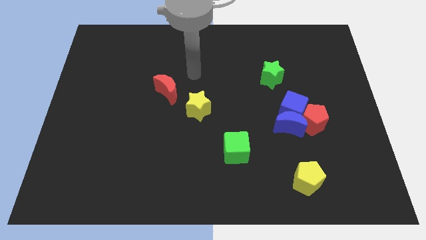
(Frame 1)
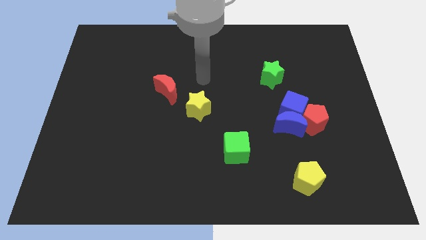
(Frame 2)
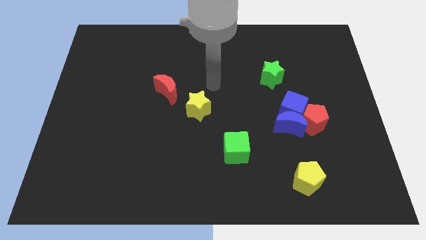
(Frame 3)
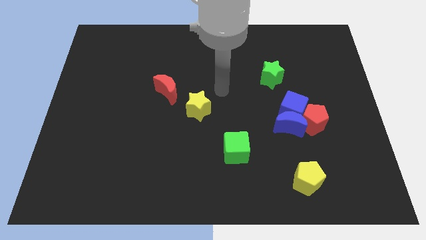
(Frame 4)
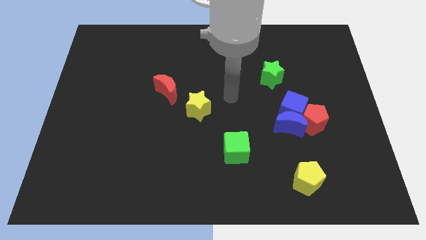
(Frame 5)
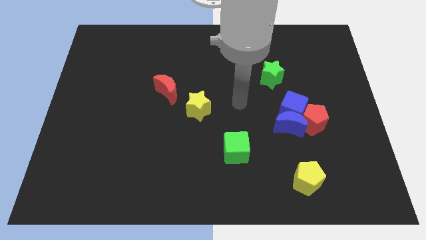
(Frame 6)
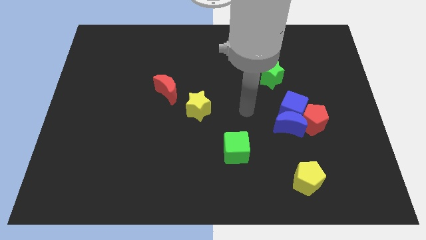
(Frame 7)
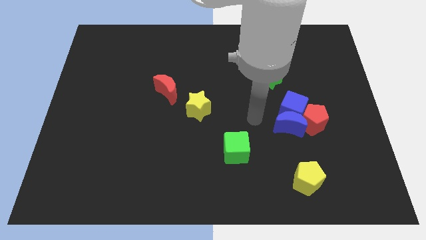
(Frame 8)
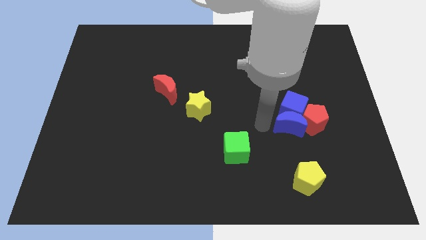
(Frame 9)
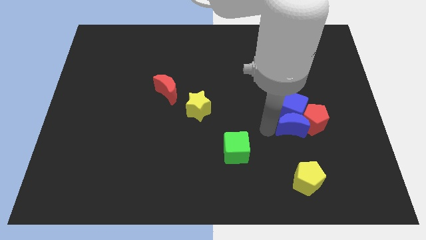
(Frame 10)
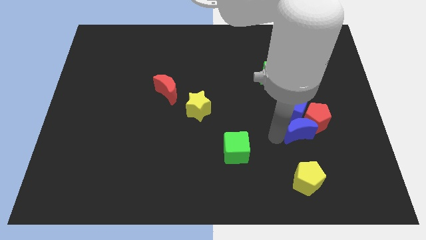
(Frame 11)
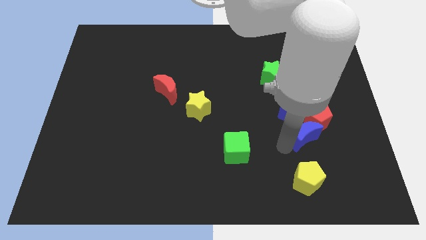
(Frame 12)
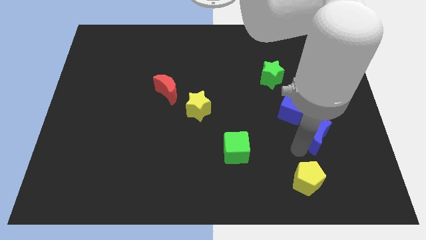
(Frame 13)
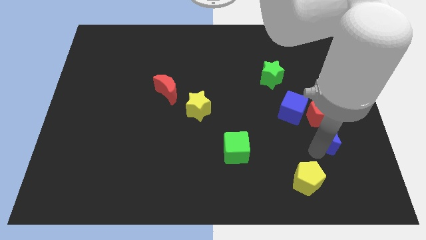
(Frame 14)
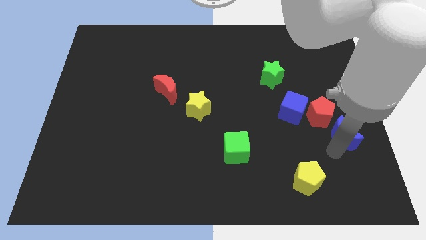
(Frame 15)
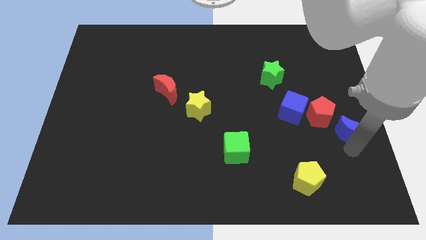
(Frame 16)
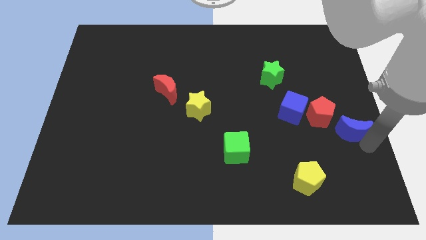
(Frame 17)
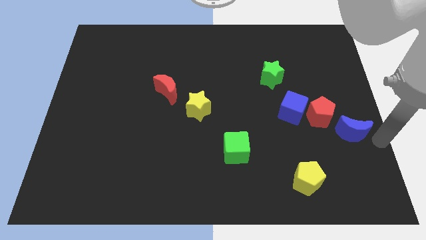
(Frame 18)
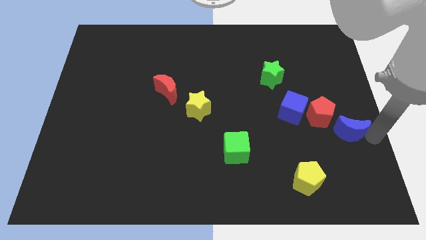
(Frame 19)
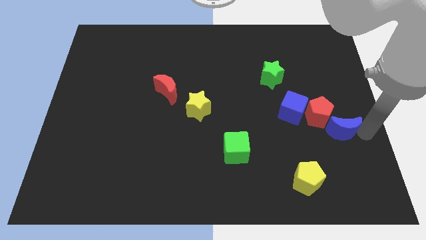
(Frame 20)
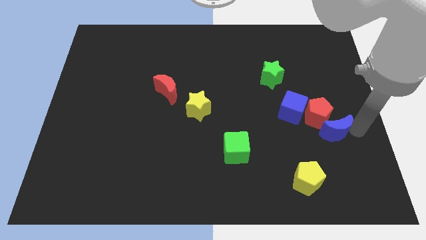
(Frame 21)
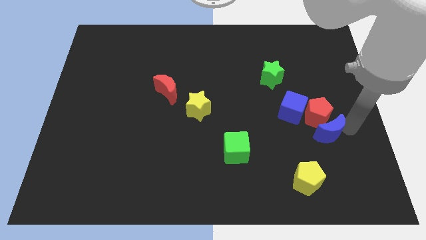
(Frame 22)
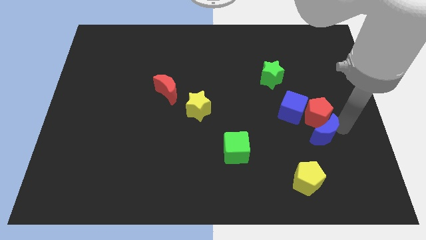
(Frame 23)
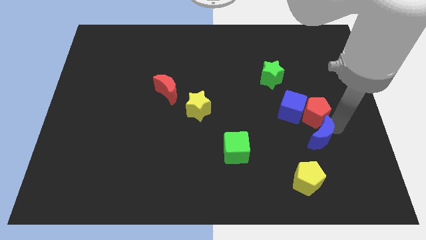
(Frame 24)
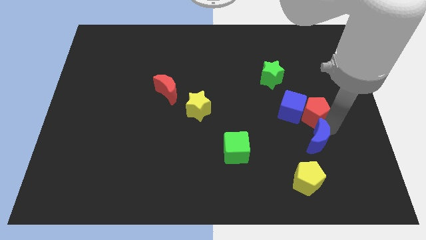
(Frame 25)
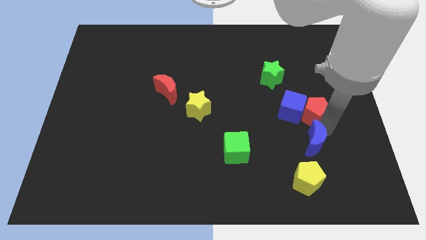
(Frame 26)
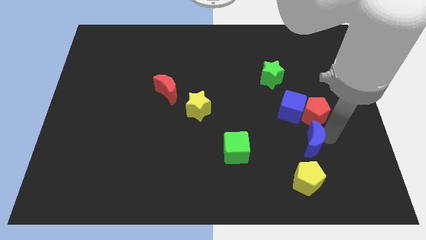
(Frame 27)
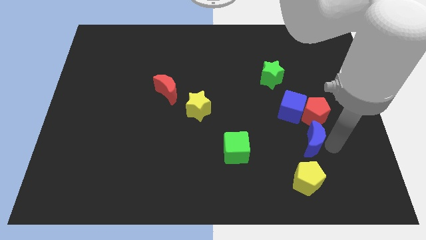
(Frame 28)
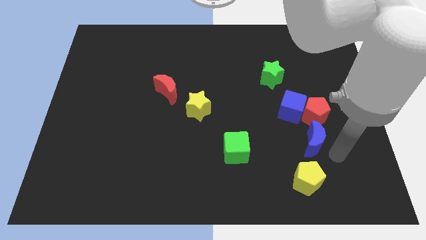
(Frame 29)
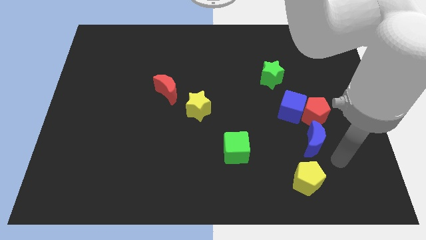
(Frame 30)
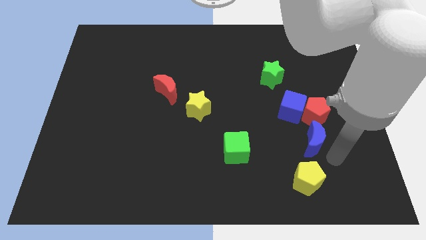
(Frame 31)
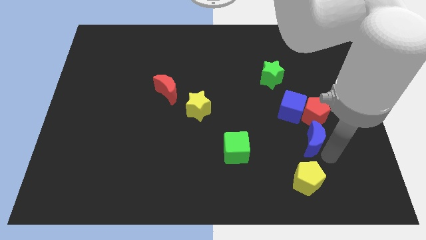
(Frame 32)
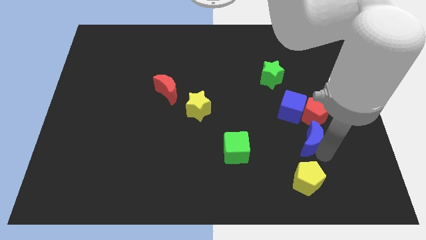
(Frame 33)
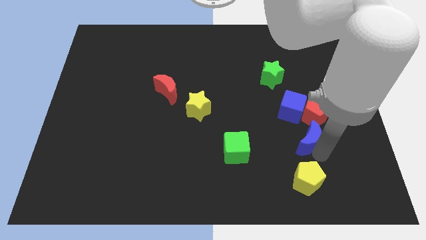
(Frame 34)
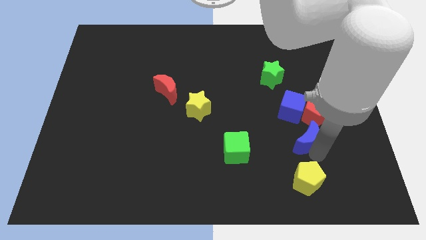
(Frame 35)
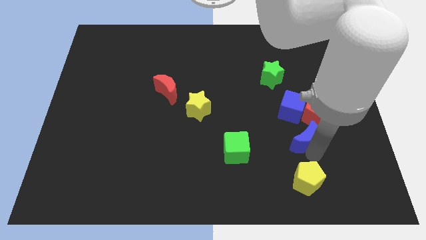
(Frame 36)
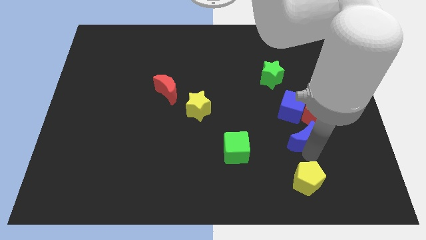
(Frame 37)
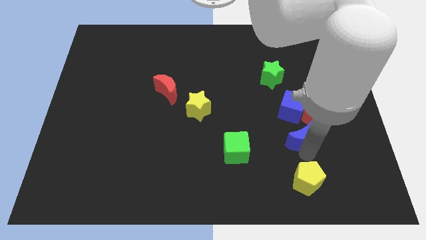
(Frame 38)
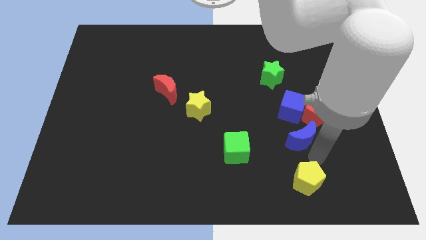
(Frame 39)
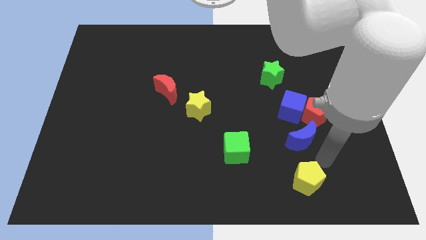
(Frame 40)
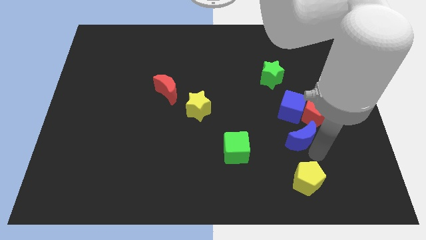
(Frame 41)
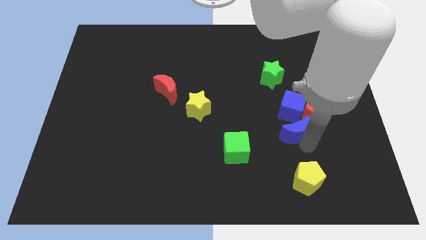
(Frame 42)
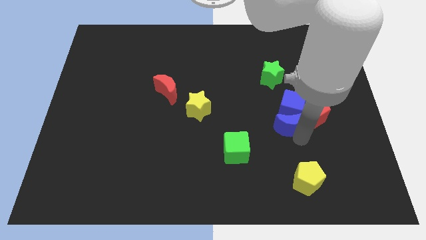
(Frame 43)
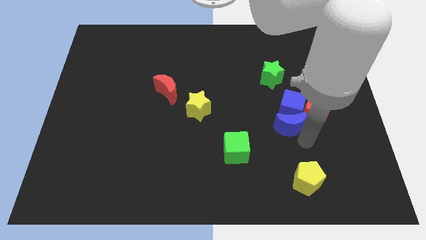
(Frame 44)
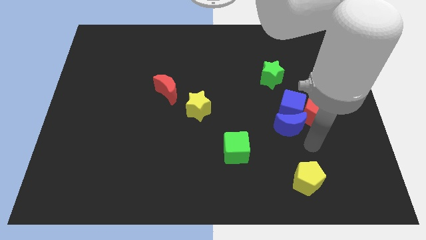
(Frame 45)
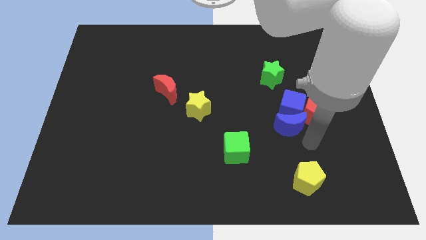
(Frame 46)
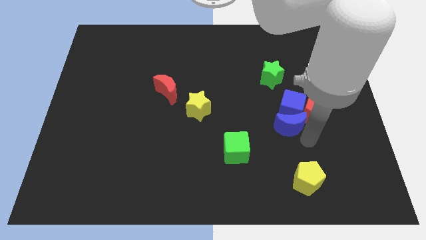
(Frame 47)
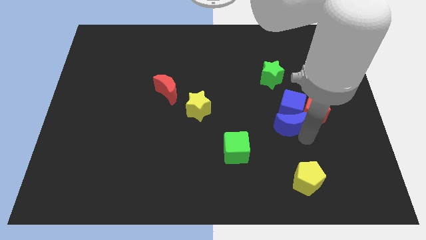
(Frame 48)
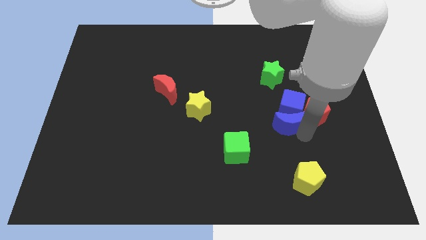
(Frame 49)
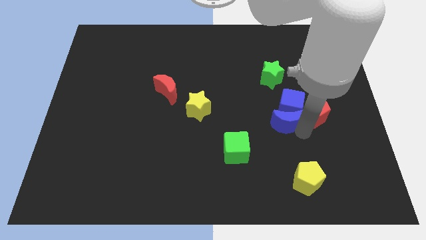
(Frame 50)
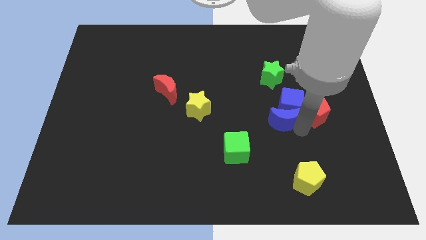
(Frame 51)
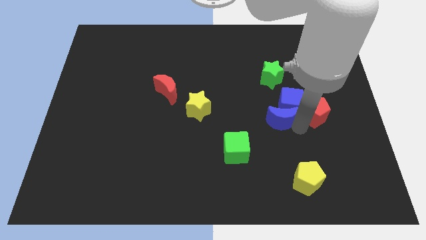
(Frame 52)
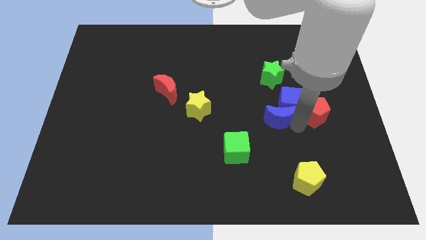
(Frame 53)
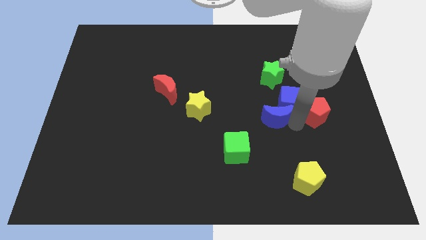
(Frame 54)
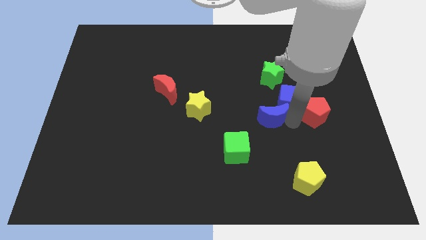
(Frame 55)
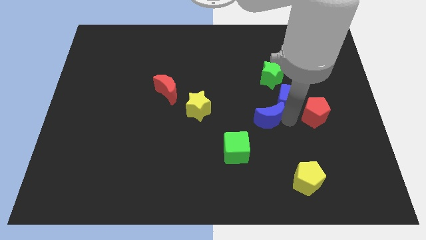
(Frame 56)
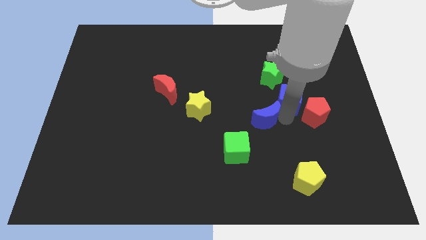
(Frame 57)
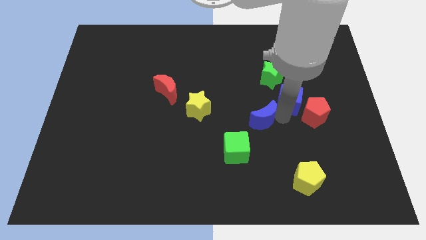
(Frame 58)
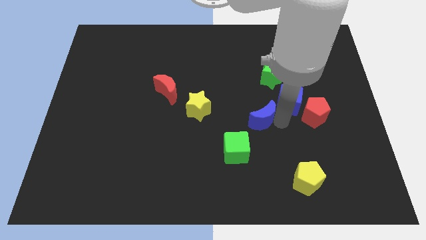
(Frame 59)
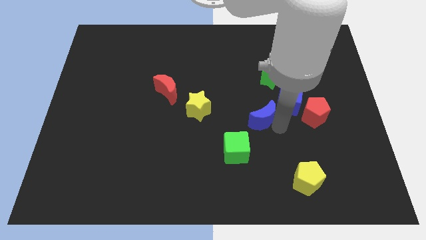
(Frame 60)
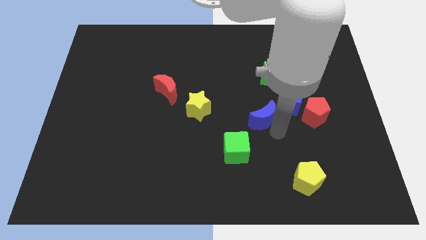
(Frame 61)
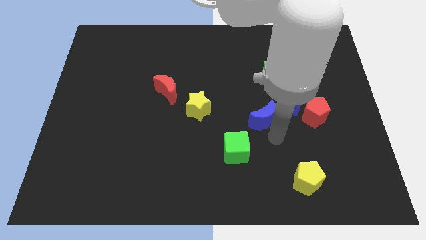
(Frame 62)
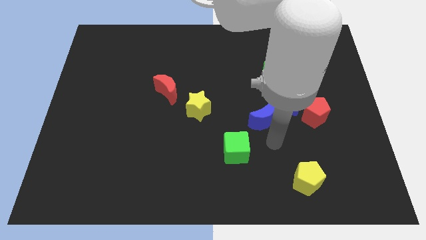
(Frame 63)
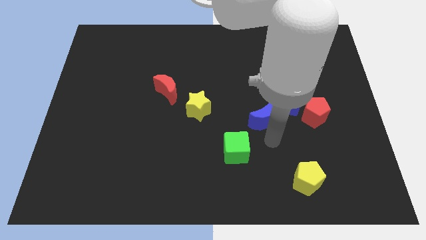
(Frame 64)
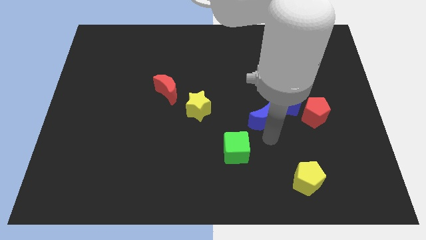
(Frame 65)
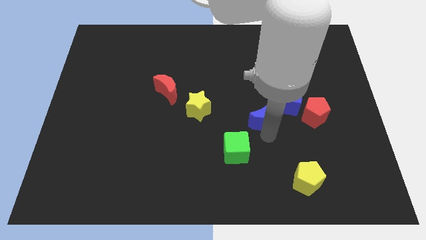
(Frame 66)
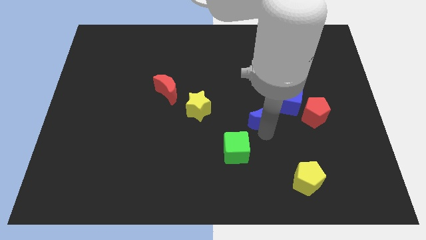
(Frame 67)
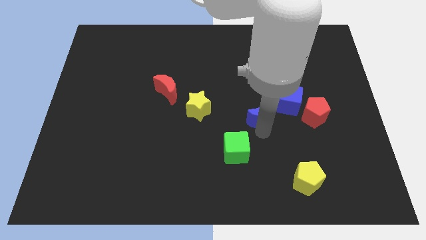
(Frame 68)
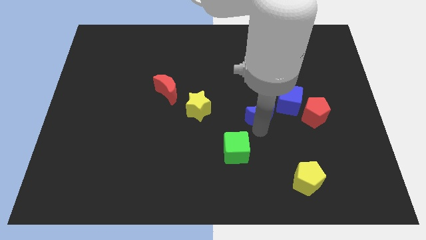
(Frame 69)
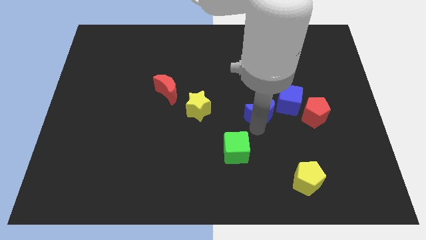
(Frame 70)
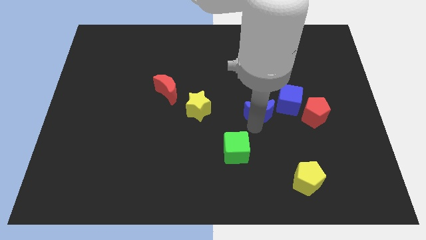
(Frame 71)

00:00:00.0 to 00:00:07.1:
move the blue moon a little up and then to the left

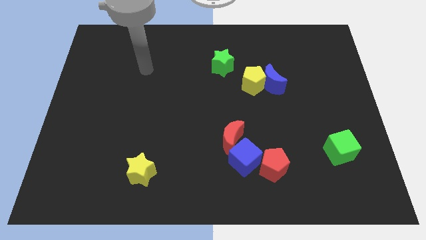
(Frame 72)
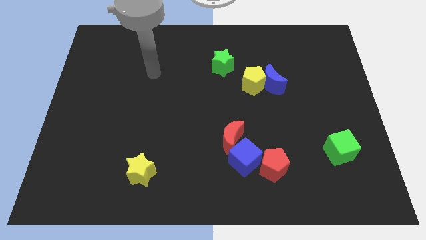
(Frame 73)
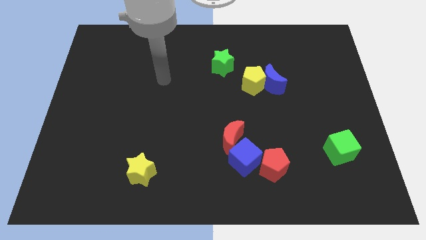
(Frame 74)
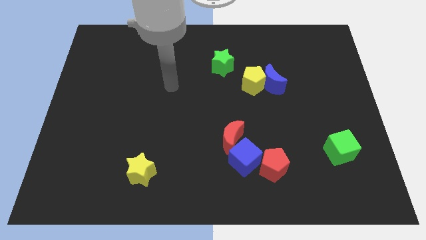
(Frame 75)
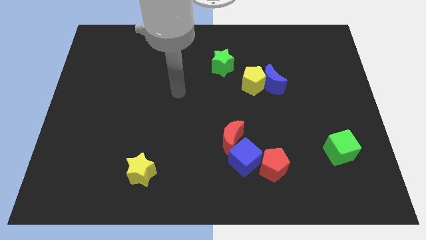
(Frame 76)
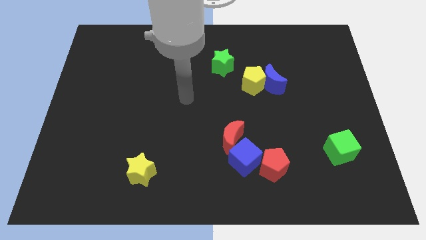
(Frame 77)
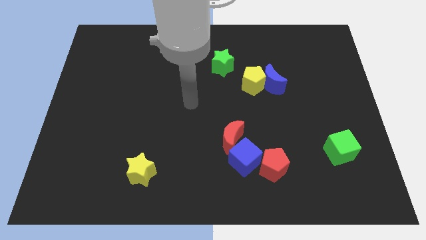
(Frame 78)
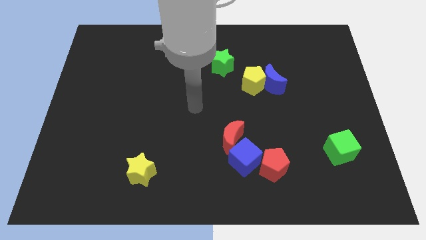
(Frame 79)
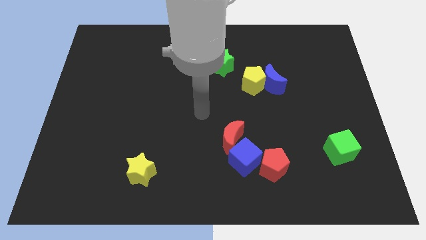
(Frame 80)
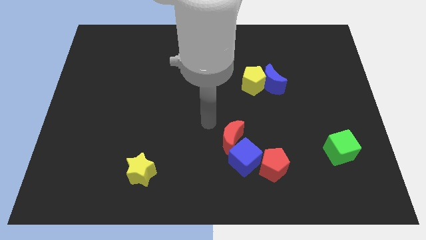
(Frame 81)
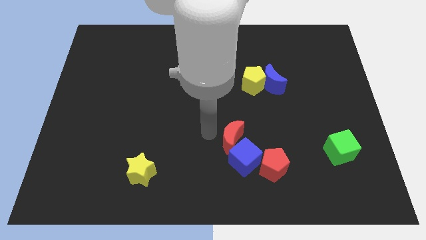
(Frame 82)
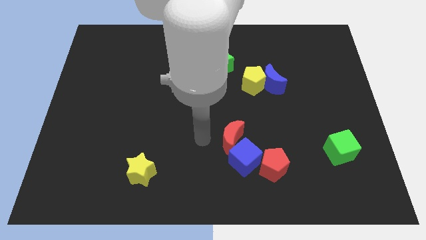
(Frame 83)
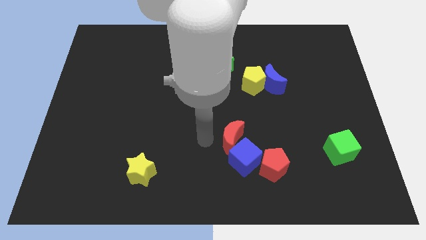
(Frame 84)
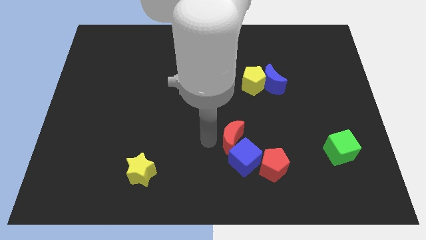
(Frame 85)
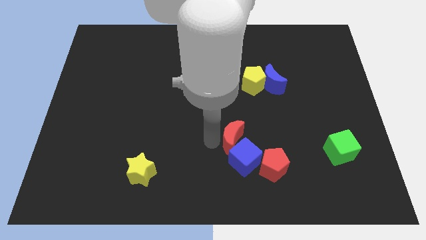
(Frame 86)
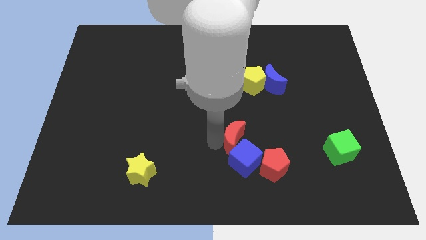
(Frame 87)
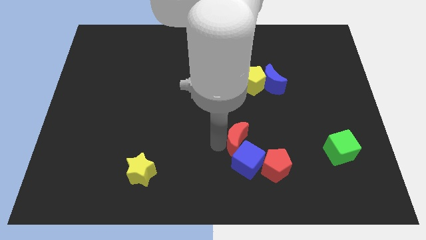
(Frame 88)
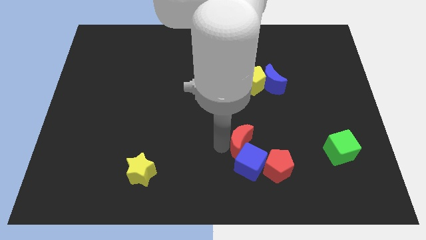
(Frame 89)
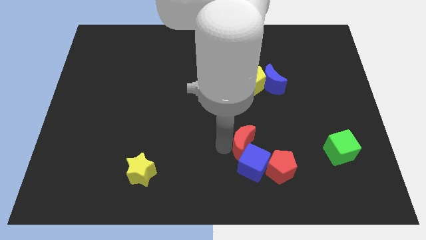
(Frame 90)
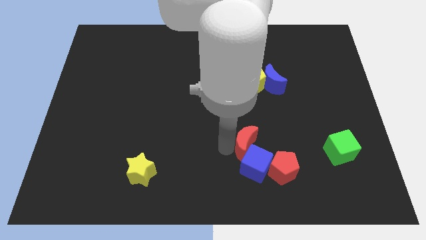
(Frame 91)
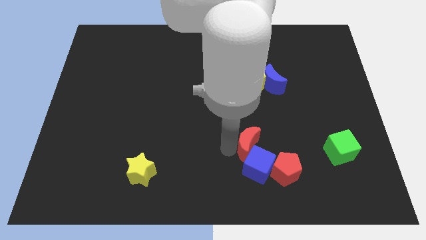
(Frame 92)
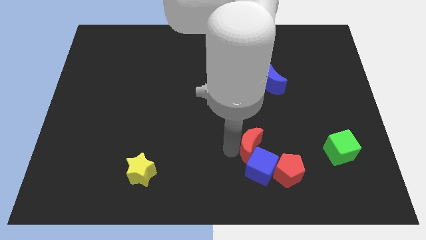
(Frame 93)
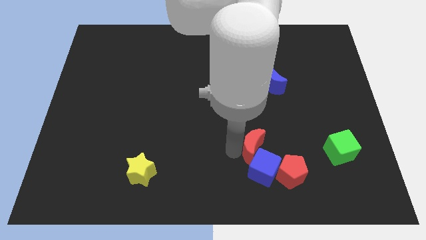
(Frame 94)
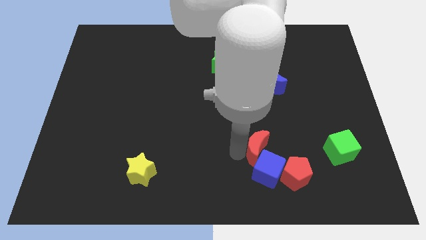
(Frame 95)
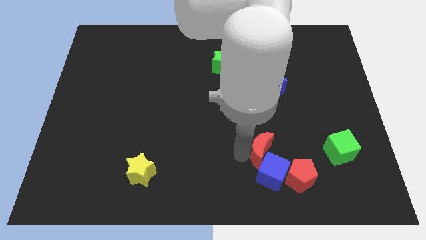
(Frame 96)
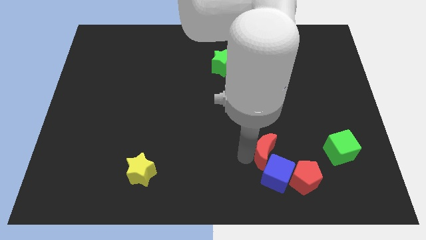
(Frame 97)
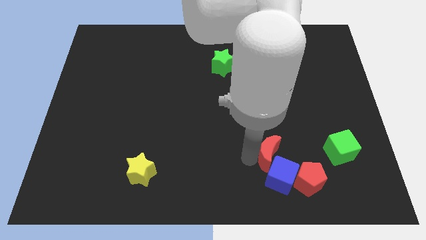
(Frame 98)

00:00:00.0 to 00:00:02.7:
push the red moon a little bit right
